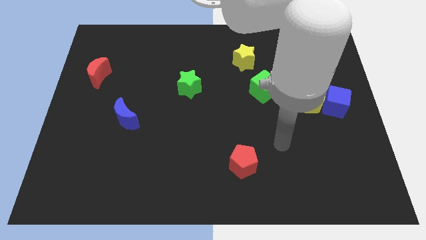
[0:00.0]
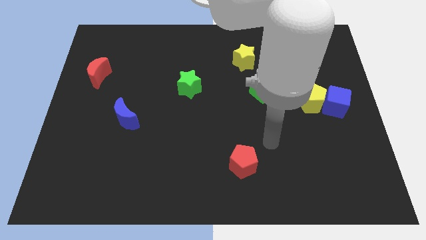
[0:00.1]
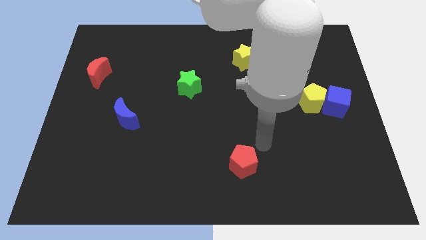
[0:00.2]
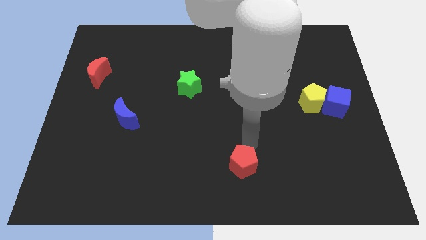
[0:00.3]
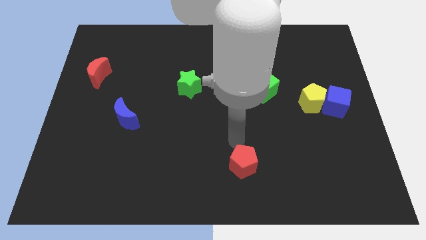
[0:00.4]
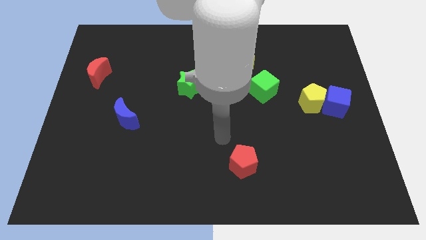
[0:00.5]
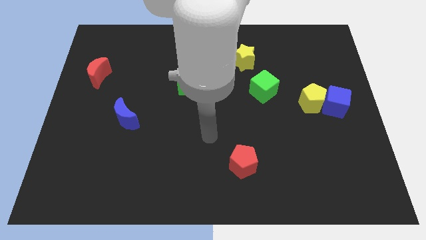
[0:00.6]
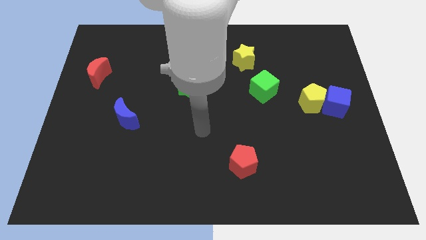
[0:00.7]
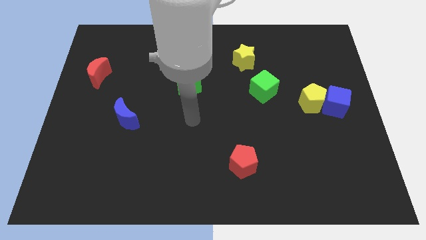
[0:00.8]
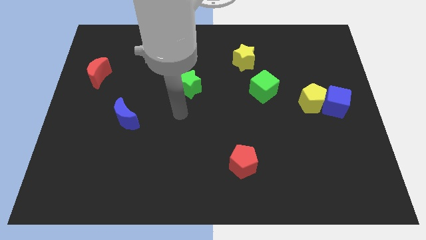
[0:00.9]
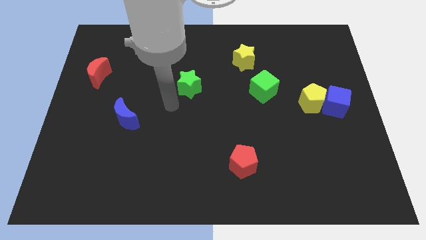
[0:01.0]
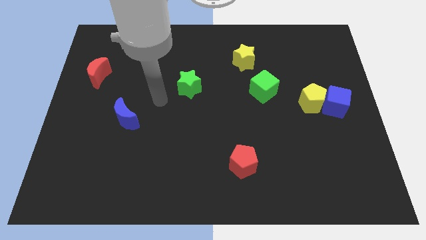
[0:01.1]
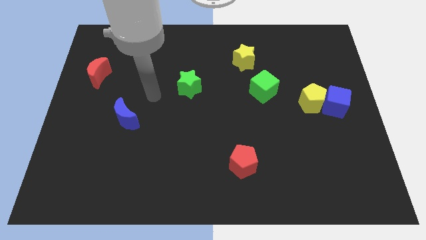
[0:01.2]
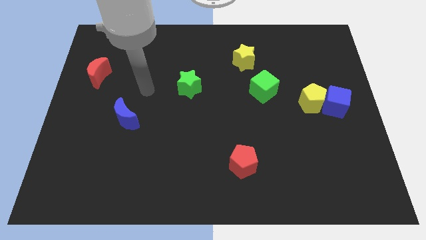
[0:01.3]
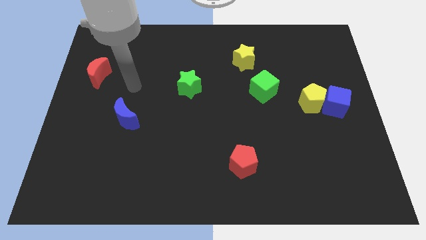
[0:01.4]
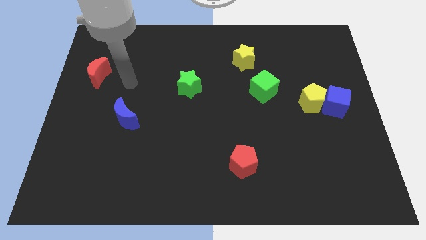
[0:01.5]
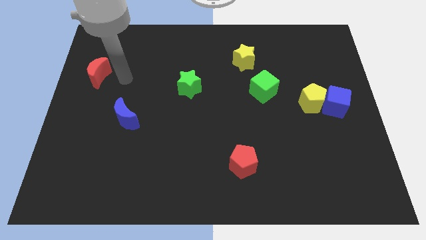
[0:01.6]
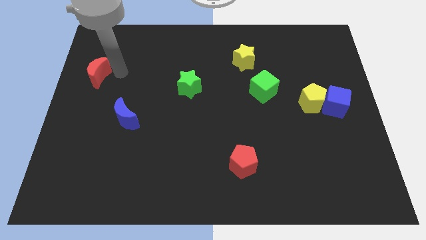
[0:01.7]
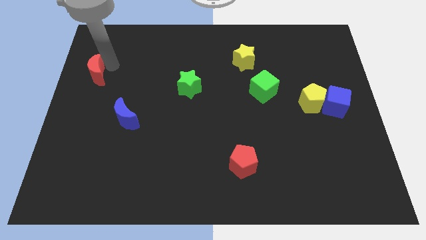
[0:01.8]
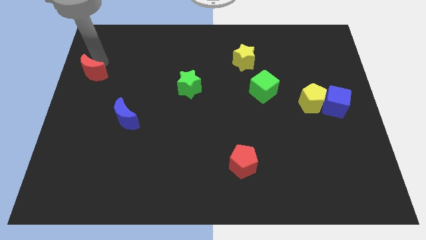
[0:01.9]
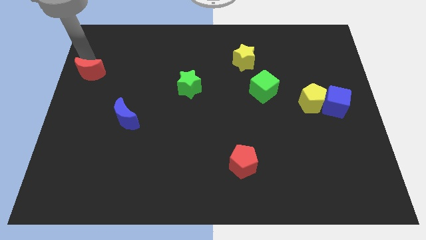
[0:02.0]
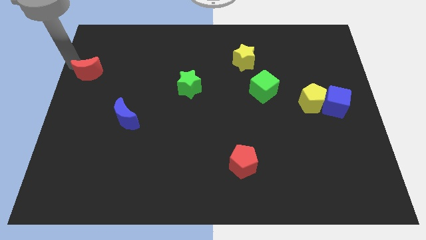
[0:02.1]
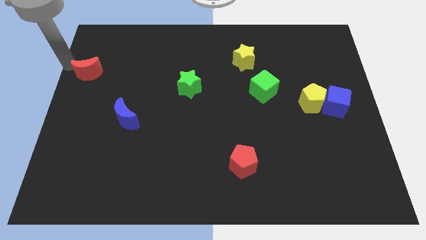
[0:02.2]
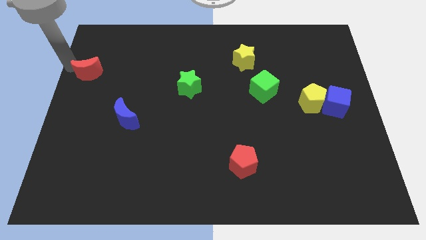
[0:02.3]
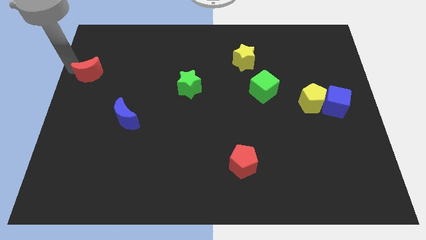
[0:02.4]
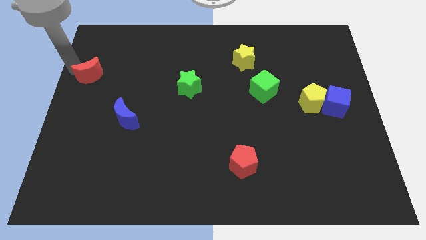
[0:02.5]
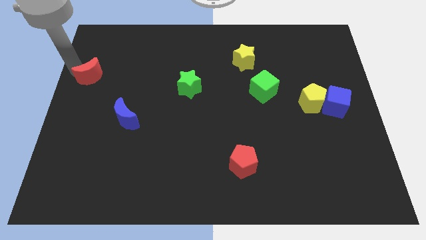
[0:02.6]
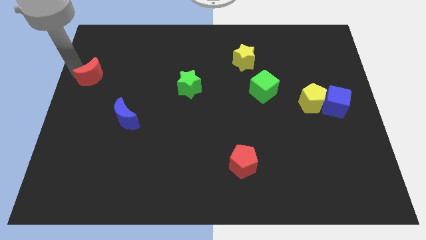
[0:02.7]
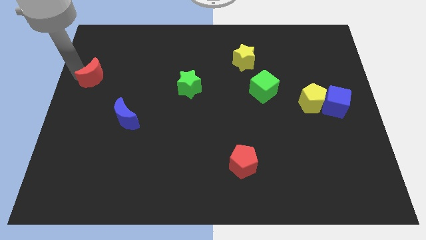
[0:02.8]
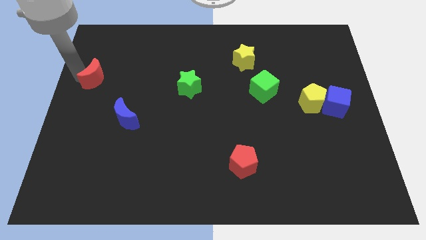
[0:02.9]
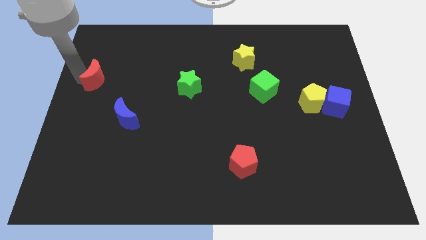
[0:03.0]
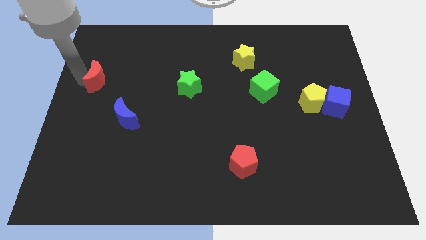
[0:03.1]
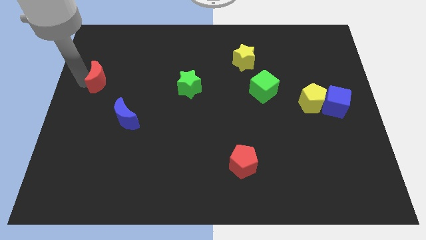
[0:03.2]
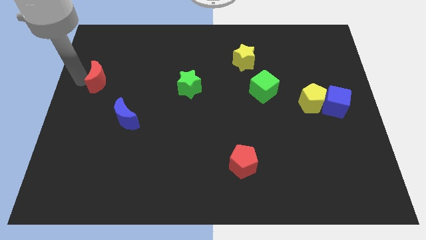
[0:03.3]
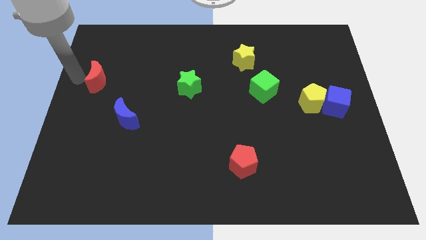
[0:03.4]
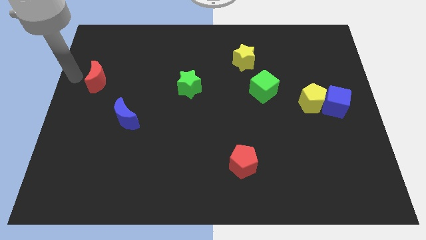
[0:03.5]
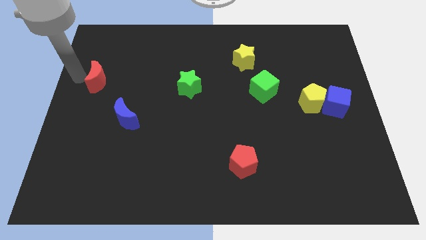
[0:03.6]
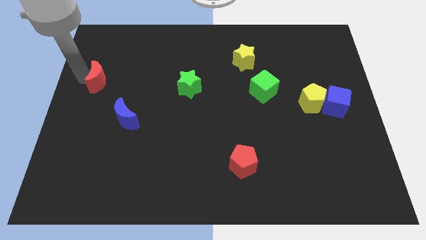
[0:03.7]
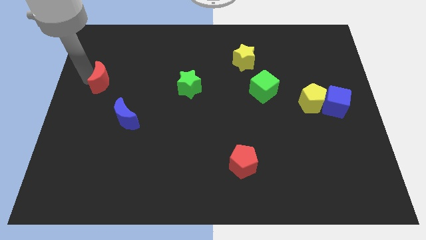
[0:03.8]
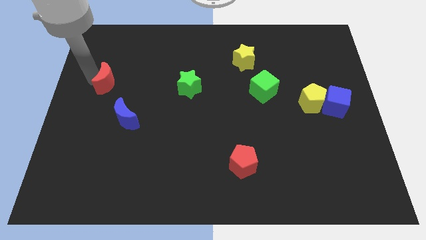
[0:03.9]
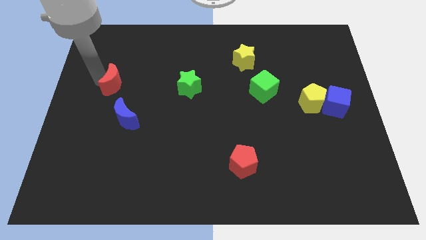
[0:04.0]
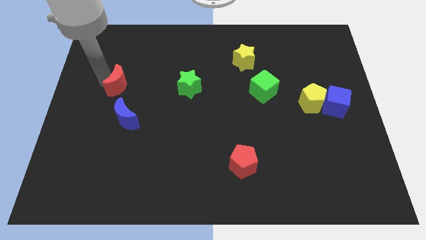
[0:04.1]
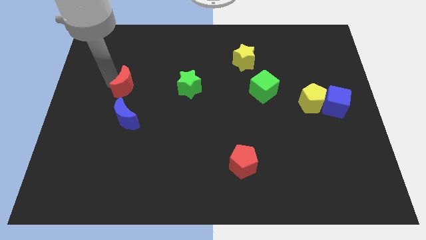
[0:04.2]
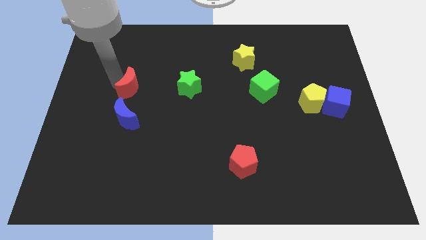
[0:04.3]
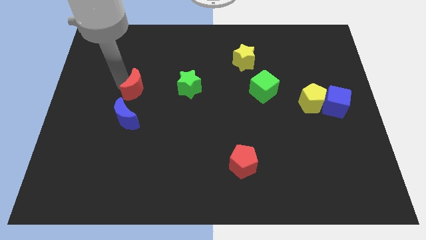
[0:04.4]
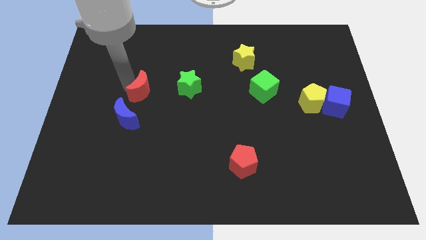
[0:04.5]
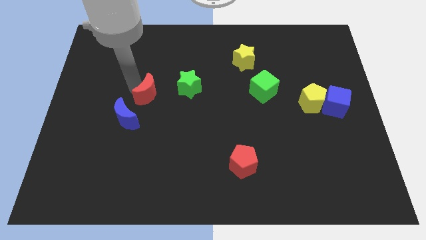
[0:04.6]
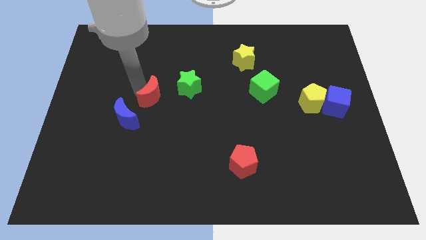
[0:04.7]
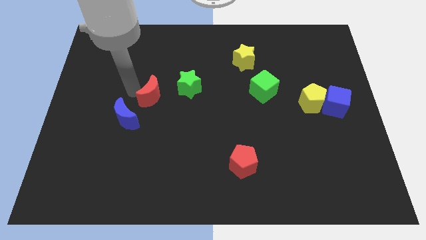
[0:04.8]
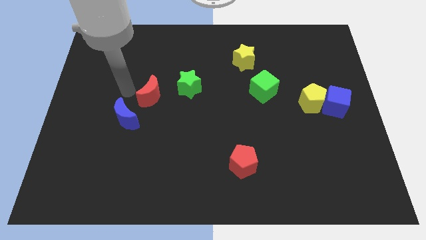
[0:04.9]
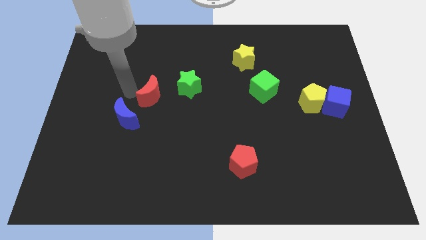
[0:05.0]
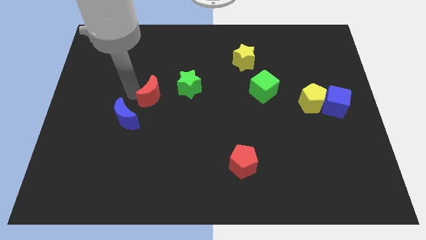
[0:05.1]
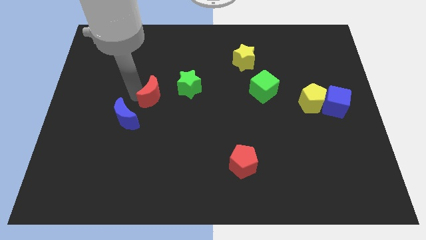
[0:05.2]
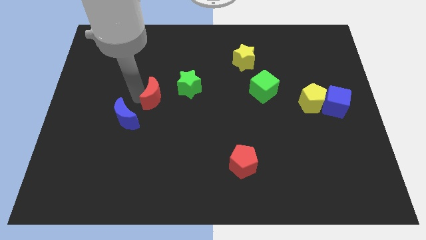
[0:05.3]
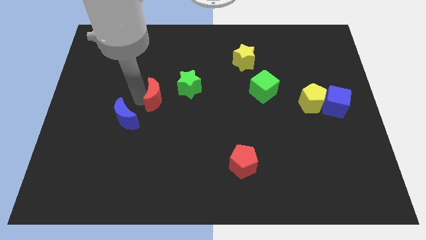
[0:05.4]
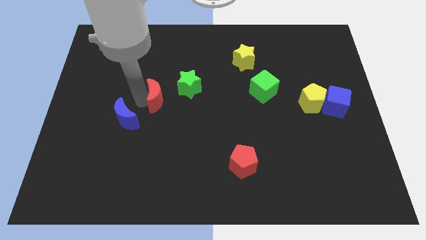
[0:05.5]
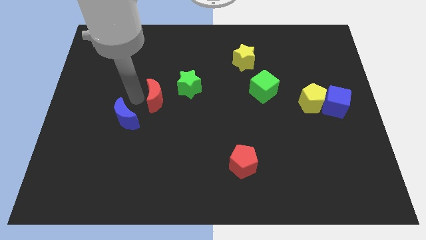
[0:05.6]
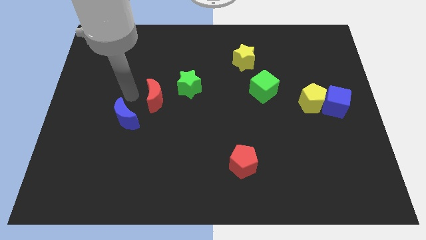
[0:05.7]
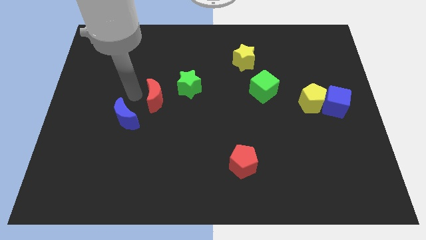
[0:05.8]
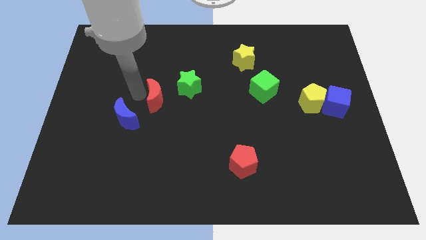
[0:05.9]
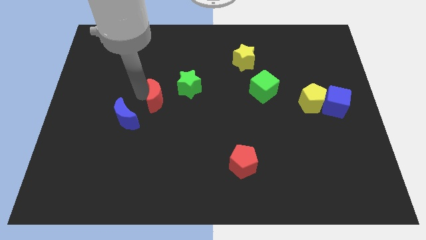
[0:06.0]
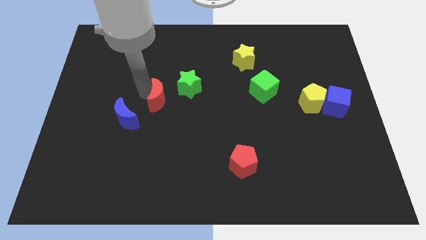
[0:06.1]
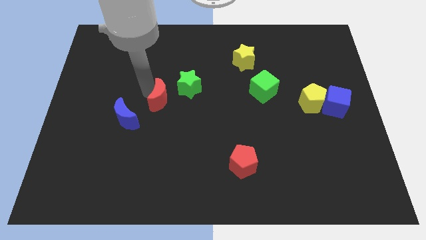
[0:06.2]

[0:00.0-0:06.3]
put the red moon to the middle
